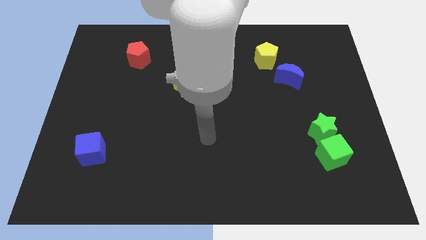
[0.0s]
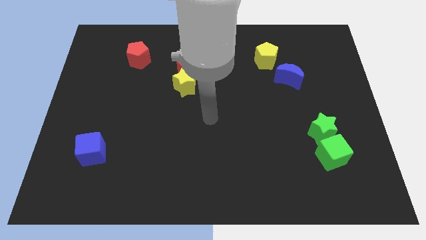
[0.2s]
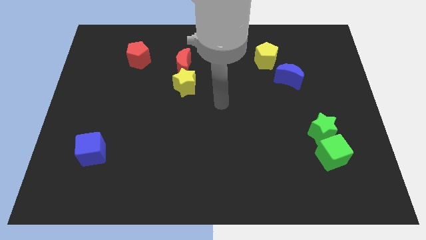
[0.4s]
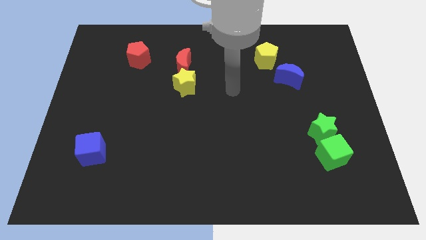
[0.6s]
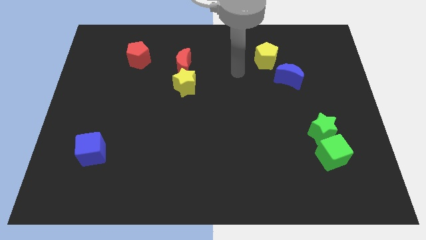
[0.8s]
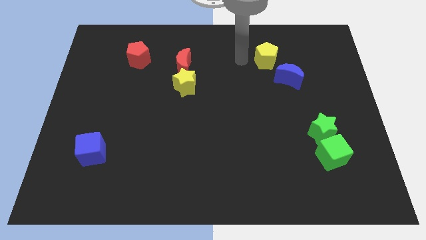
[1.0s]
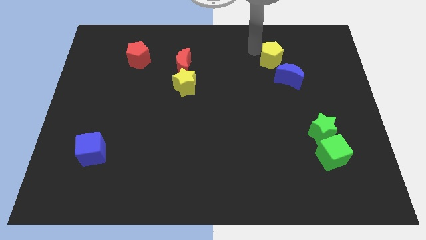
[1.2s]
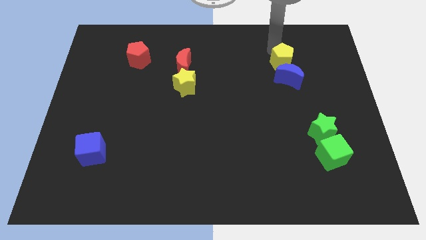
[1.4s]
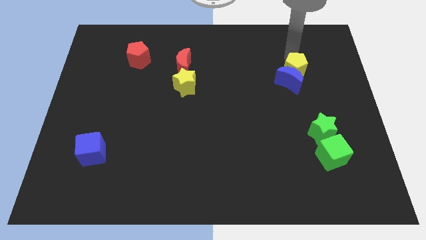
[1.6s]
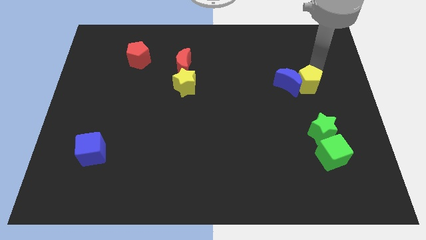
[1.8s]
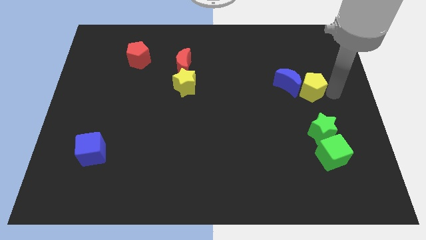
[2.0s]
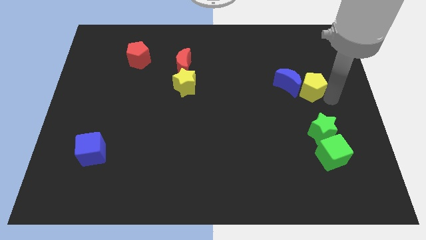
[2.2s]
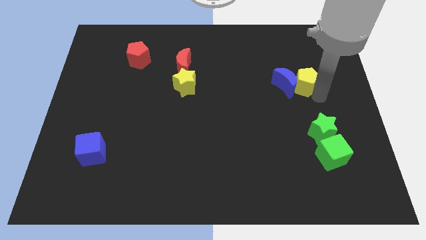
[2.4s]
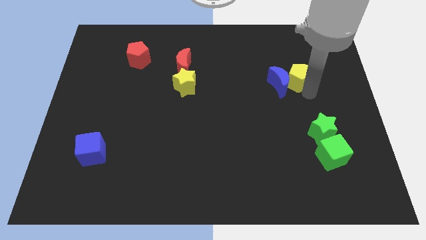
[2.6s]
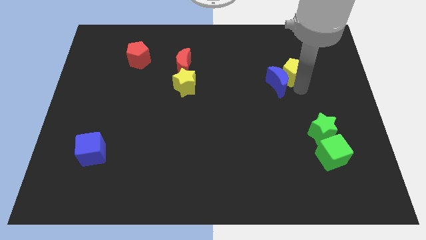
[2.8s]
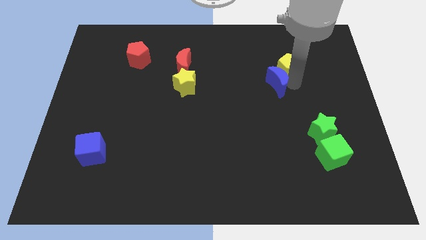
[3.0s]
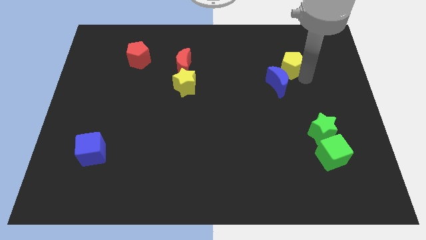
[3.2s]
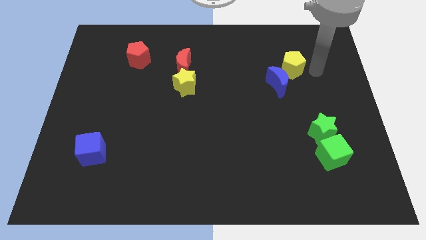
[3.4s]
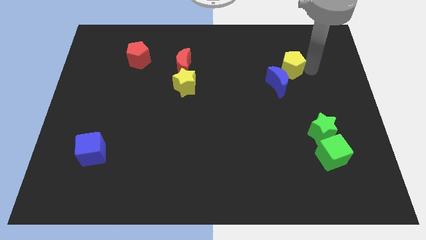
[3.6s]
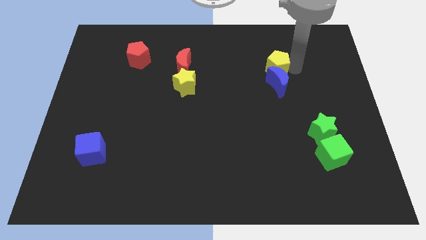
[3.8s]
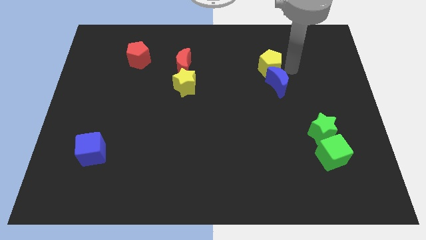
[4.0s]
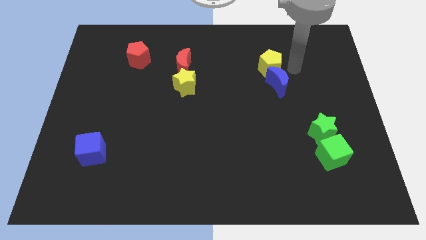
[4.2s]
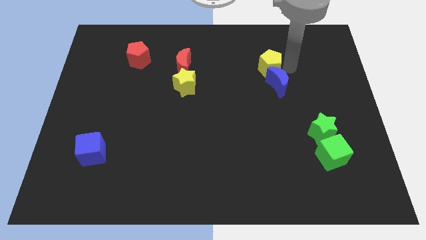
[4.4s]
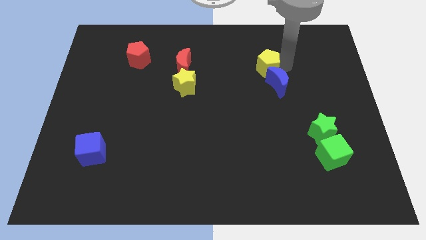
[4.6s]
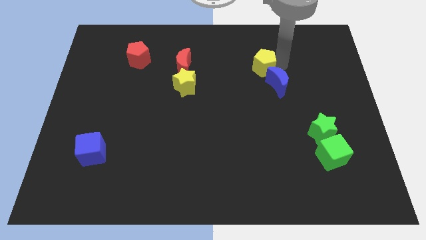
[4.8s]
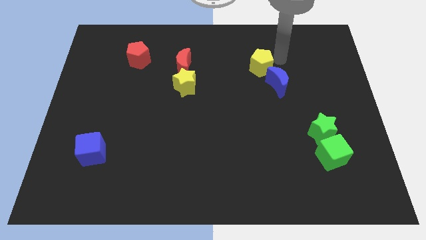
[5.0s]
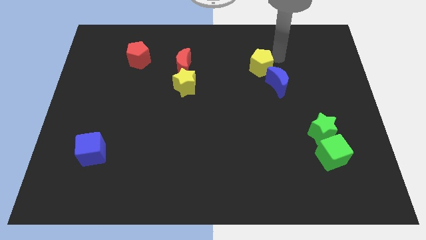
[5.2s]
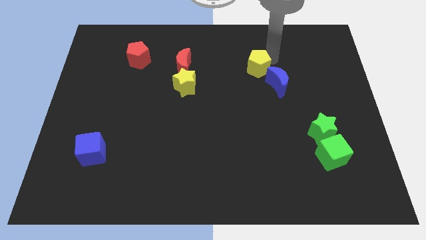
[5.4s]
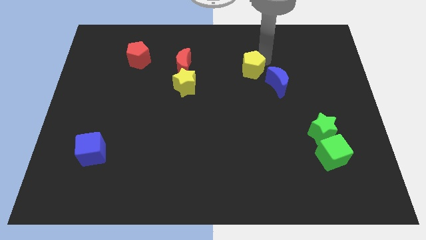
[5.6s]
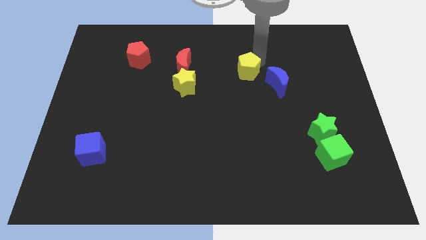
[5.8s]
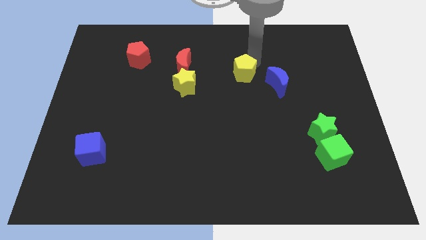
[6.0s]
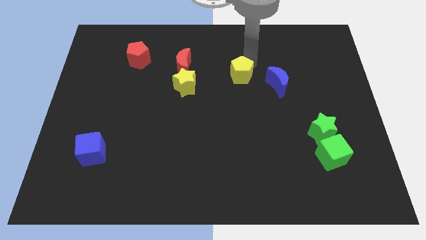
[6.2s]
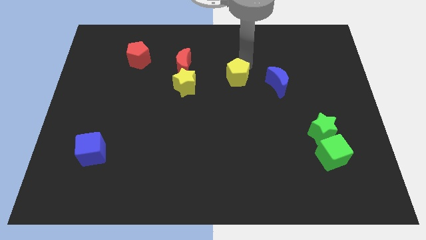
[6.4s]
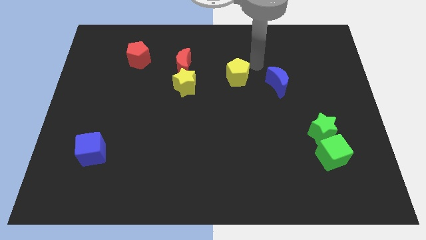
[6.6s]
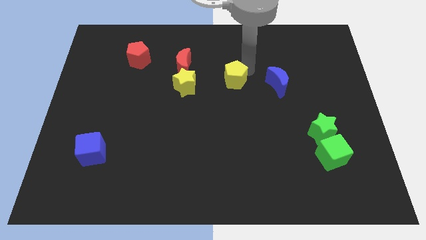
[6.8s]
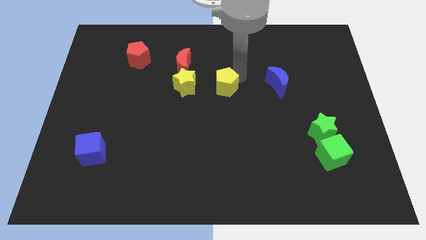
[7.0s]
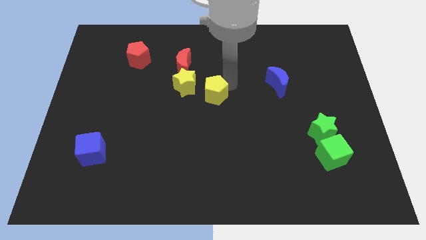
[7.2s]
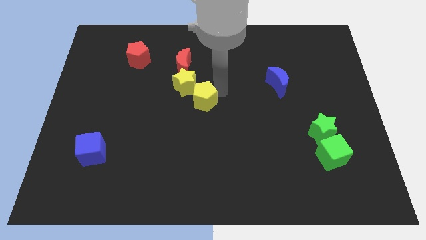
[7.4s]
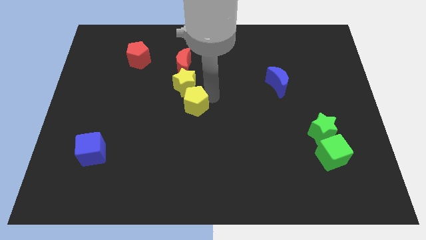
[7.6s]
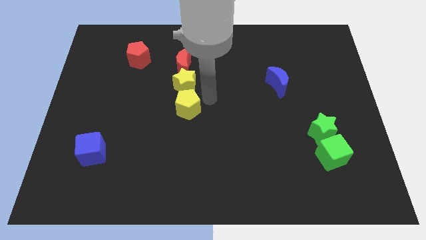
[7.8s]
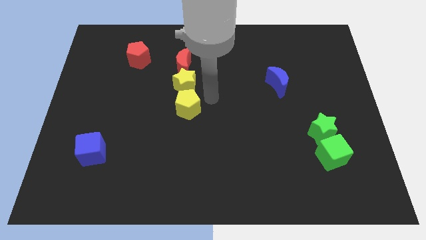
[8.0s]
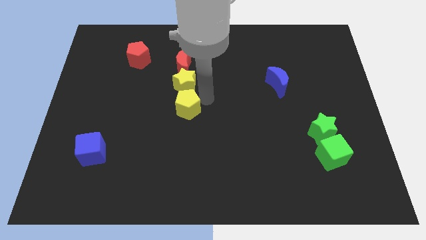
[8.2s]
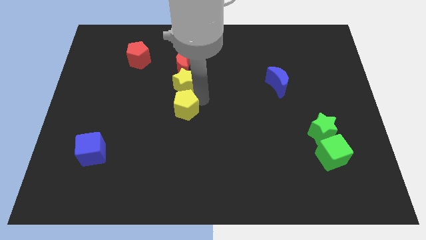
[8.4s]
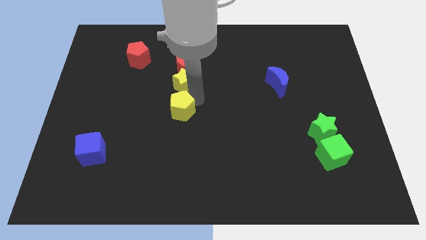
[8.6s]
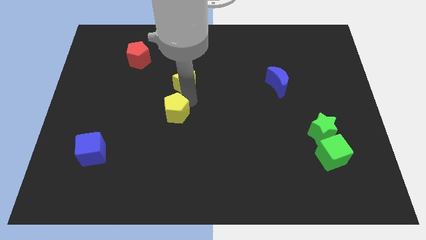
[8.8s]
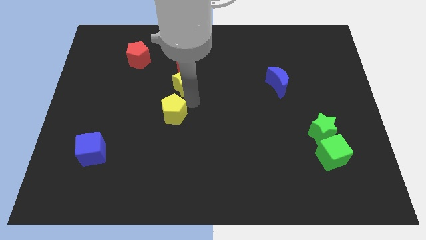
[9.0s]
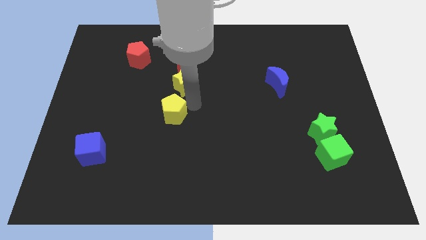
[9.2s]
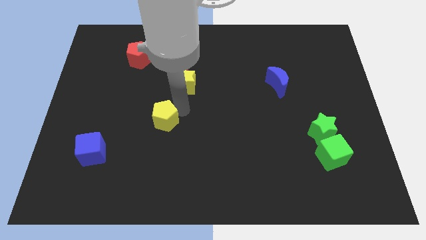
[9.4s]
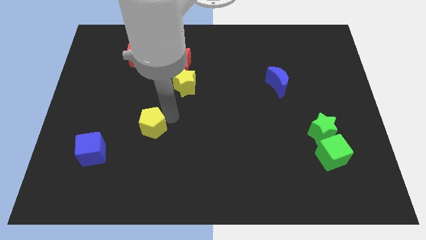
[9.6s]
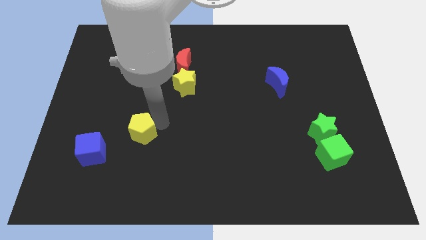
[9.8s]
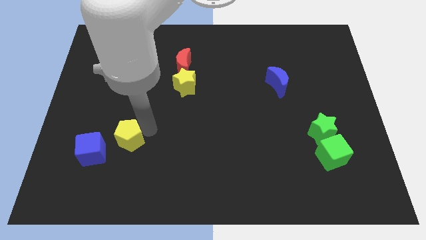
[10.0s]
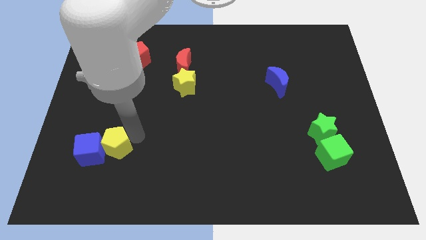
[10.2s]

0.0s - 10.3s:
move the yellow pentagon towards the blue cube

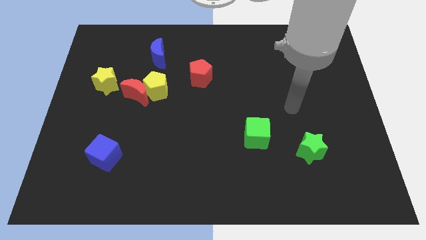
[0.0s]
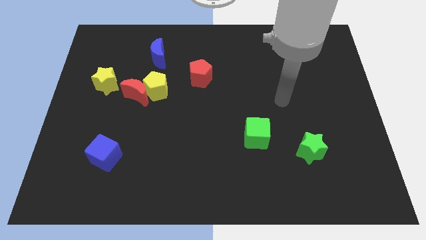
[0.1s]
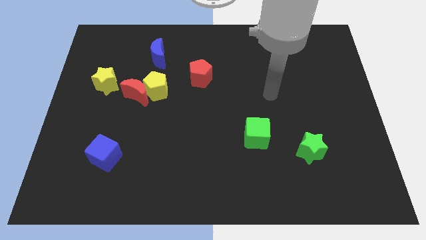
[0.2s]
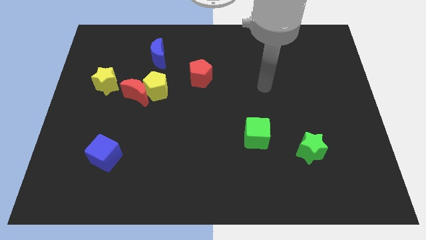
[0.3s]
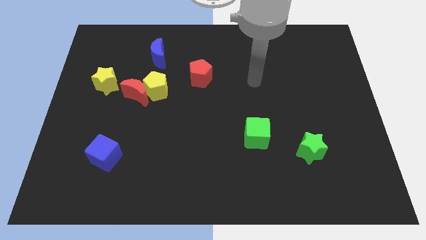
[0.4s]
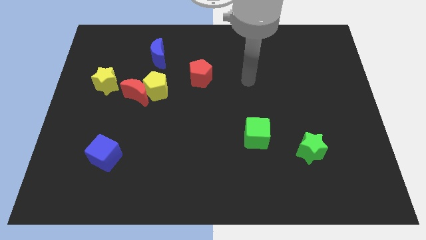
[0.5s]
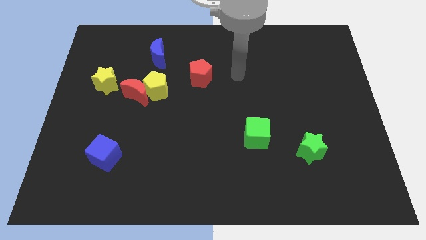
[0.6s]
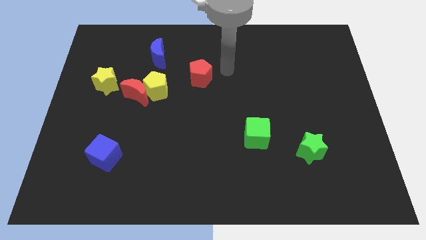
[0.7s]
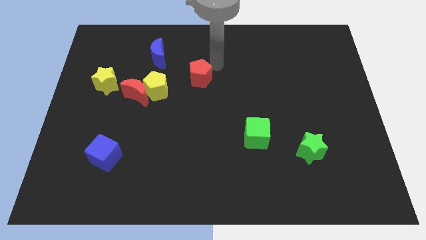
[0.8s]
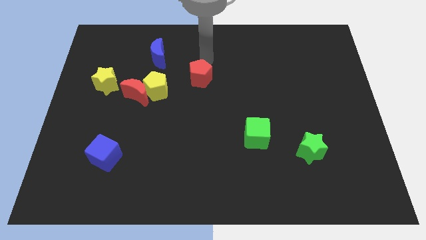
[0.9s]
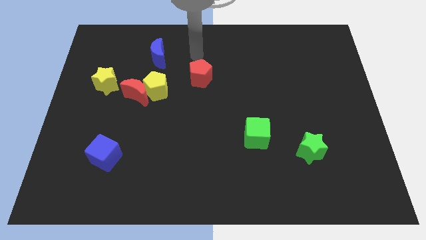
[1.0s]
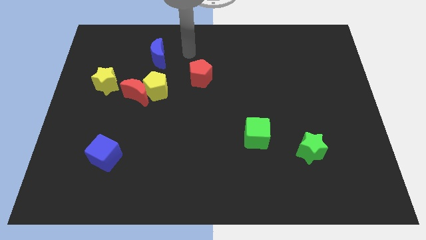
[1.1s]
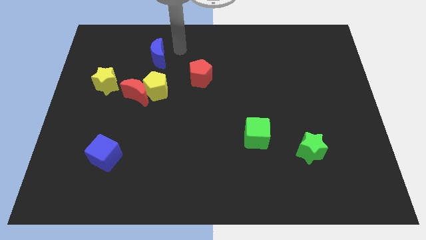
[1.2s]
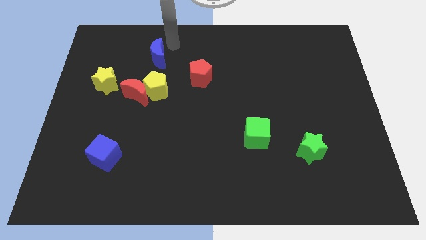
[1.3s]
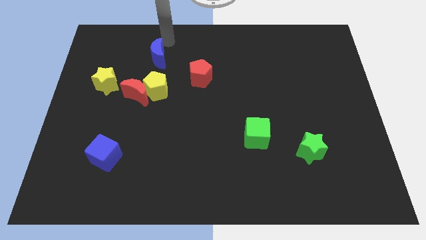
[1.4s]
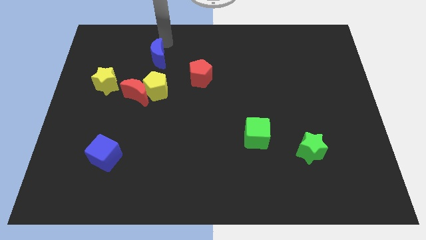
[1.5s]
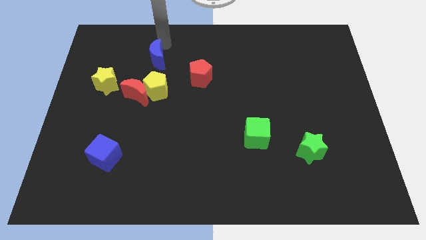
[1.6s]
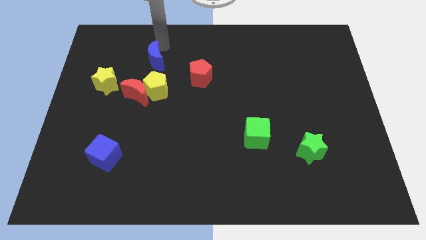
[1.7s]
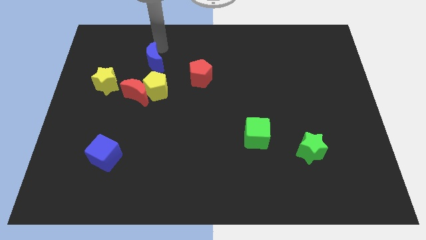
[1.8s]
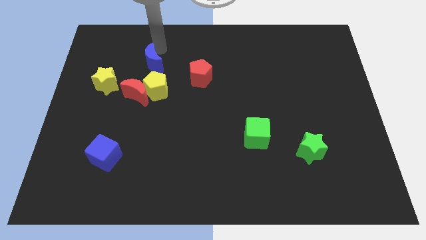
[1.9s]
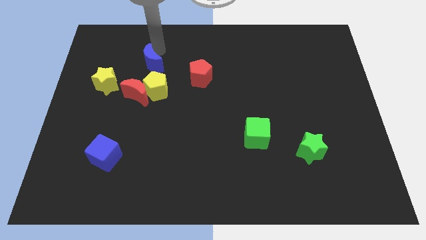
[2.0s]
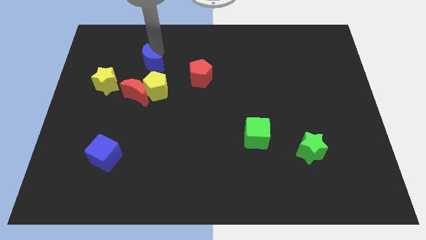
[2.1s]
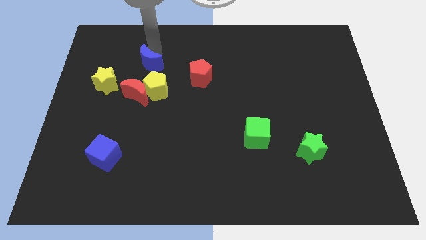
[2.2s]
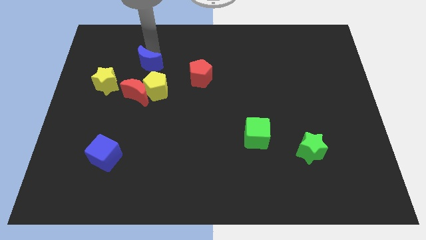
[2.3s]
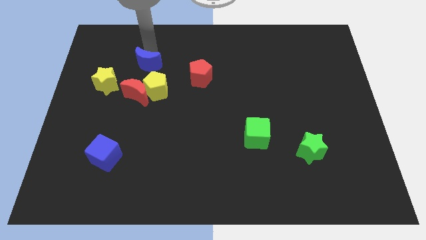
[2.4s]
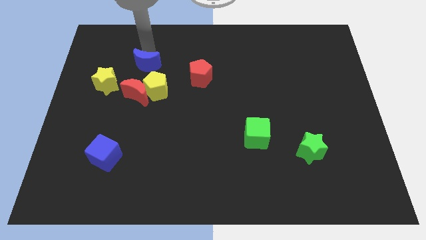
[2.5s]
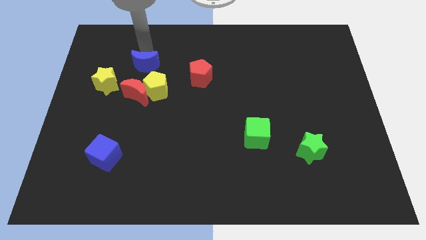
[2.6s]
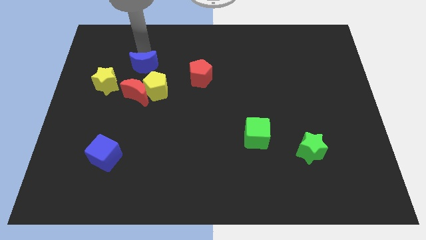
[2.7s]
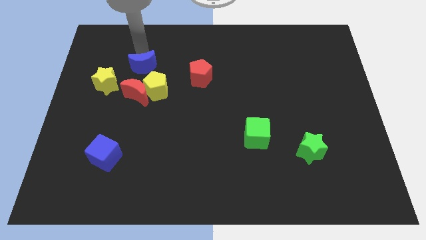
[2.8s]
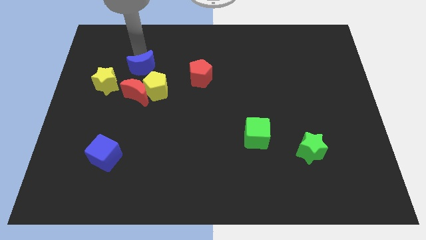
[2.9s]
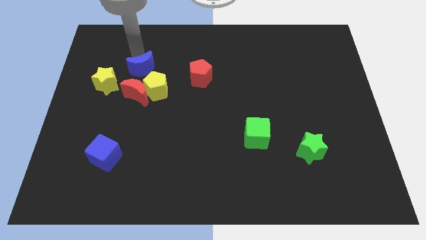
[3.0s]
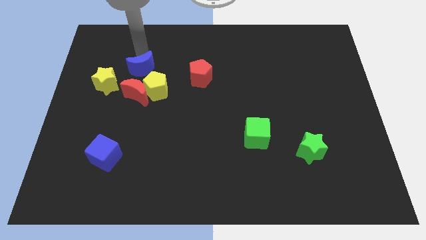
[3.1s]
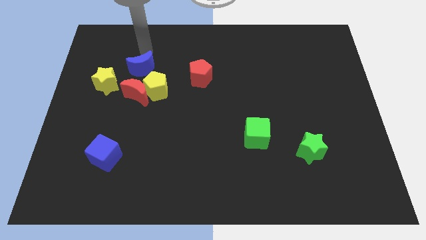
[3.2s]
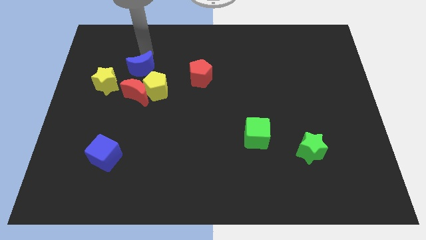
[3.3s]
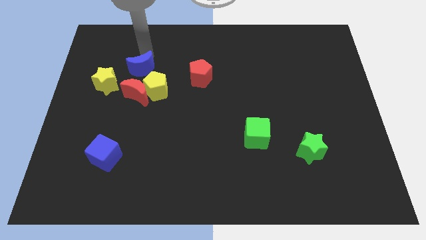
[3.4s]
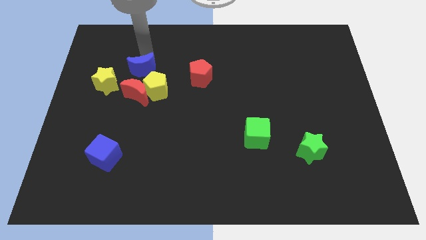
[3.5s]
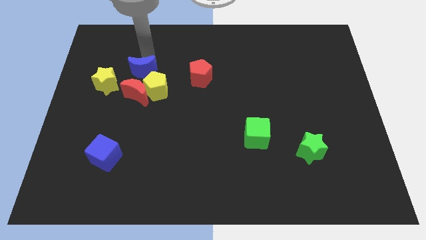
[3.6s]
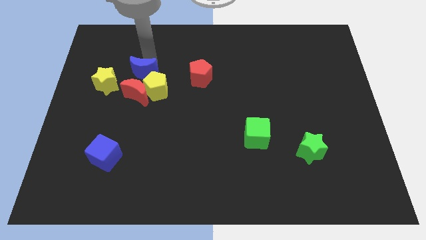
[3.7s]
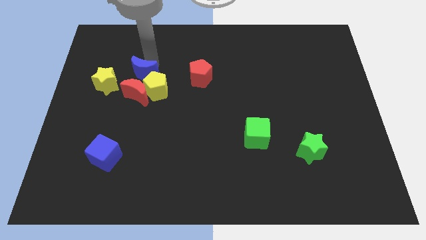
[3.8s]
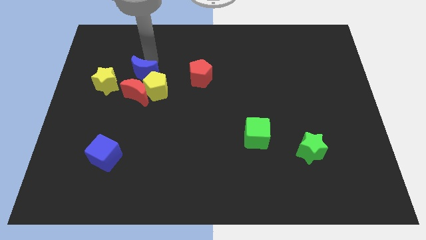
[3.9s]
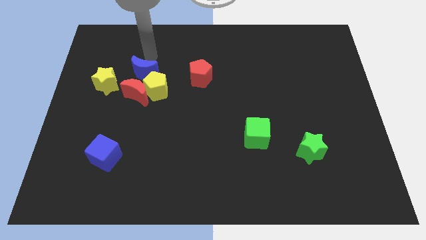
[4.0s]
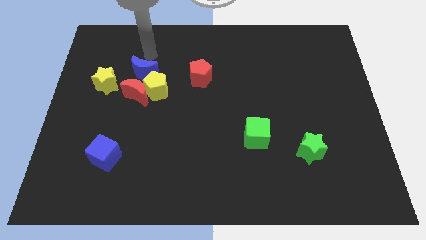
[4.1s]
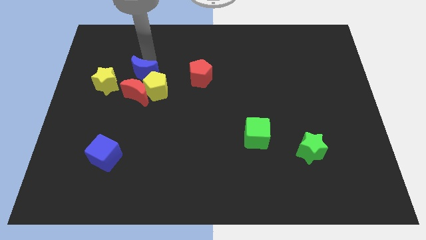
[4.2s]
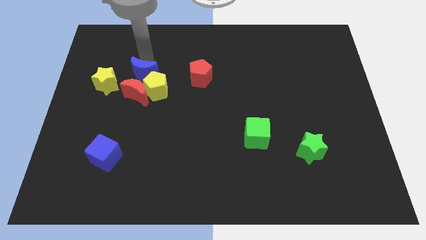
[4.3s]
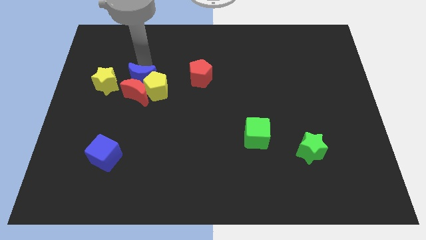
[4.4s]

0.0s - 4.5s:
put the blue moon next to the red moon
